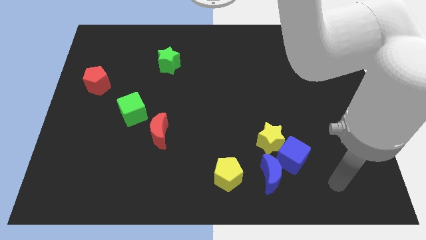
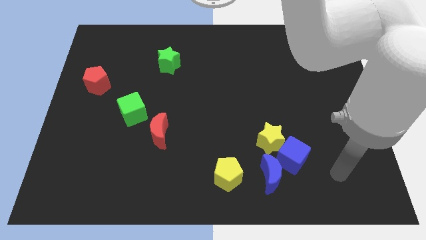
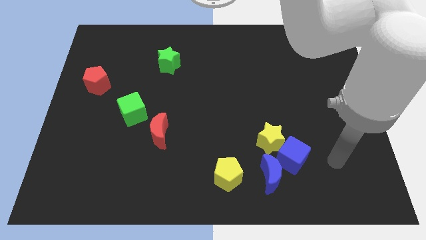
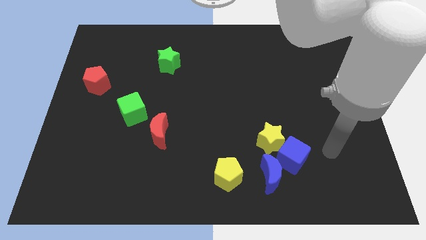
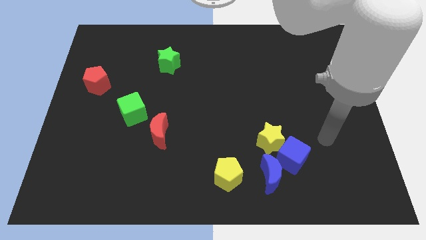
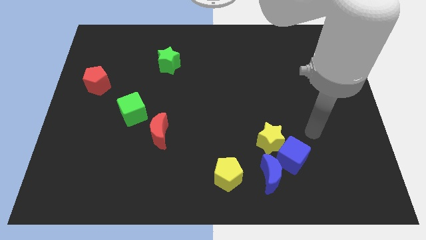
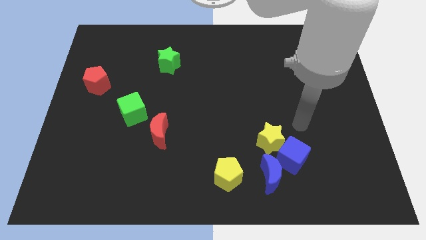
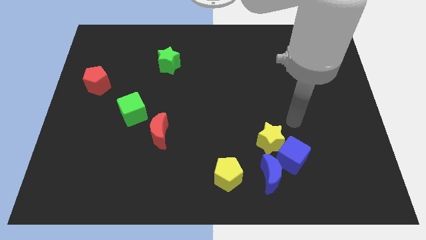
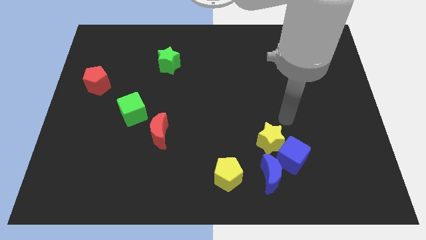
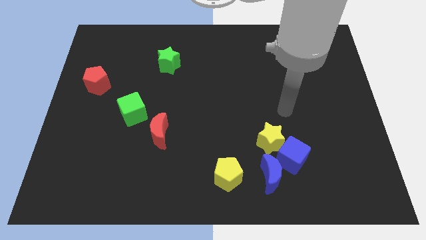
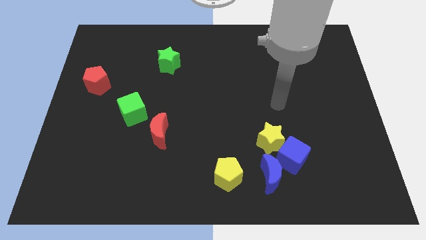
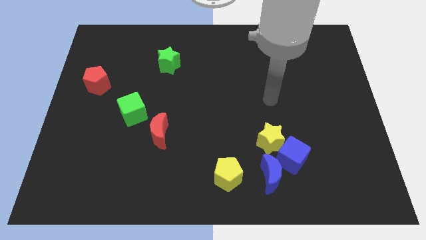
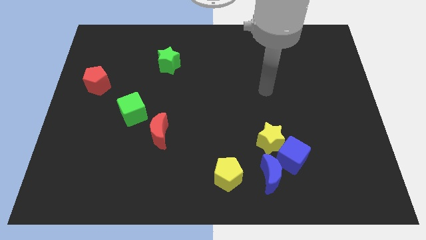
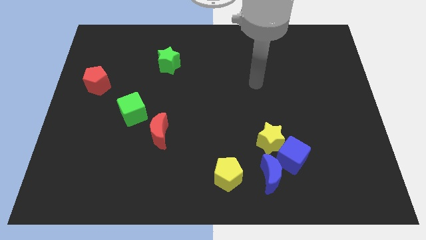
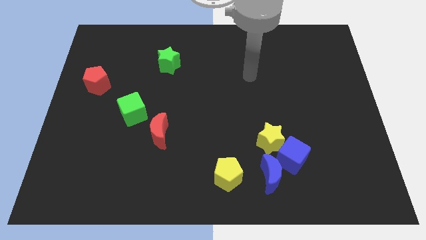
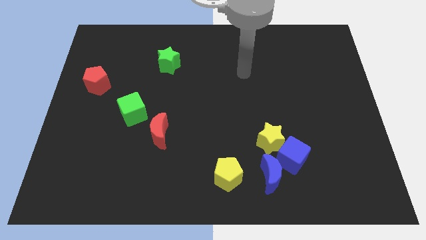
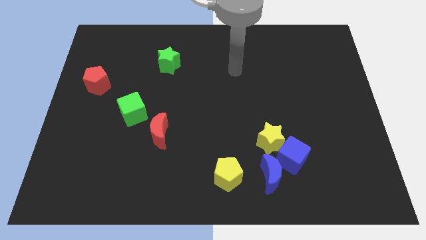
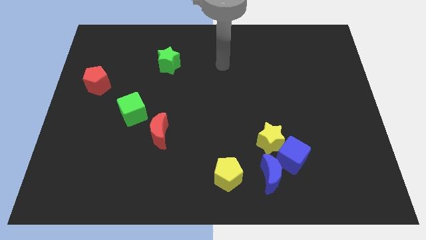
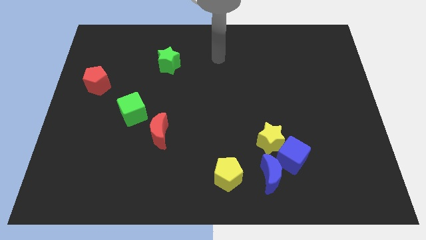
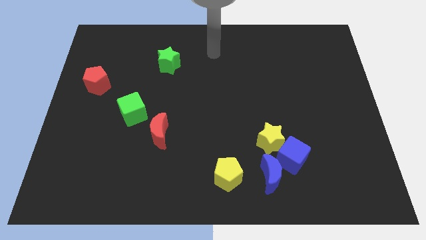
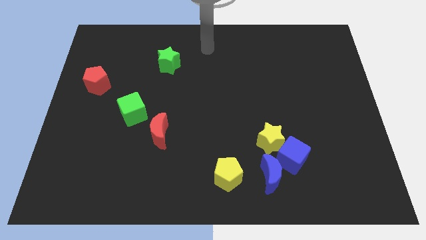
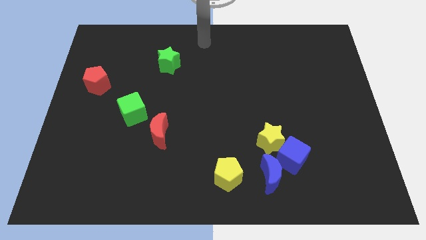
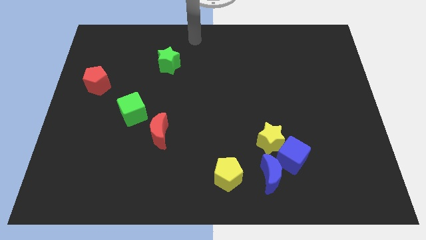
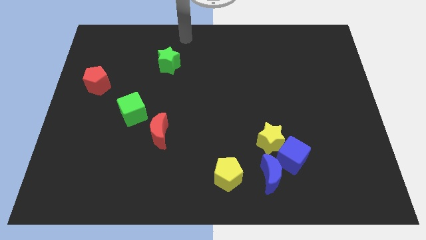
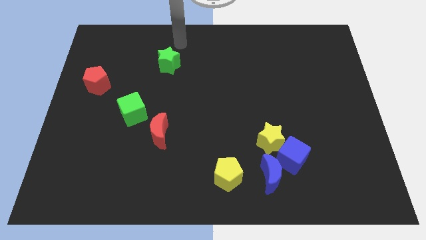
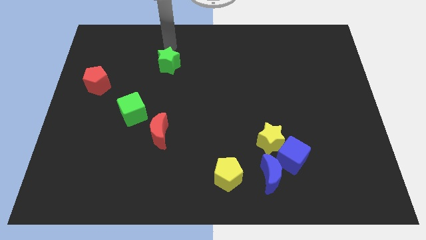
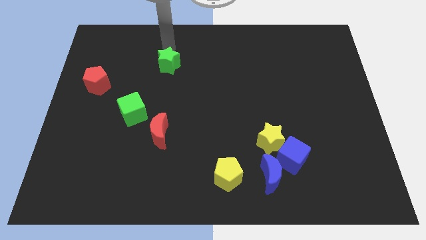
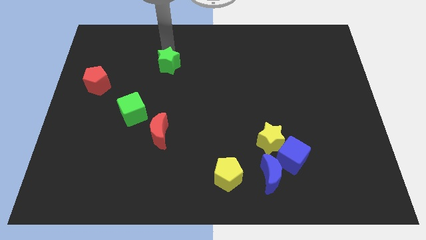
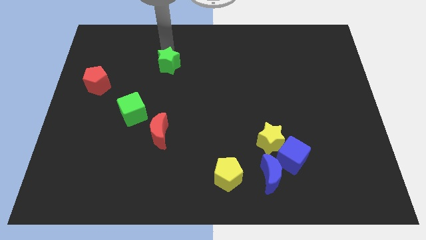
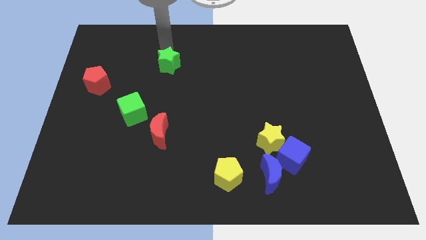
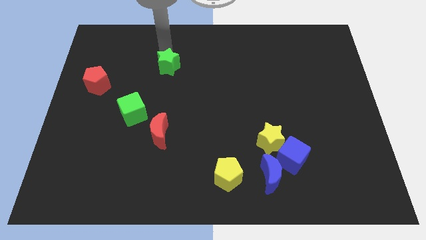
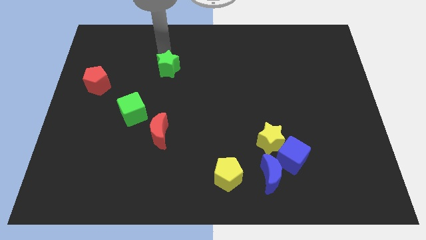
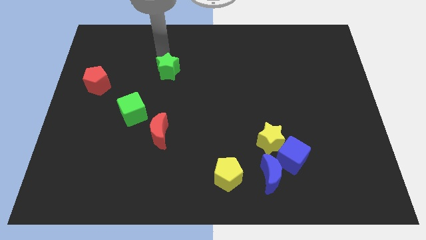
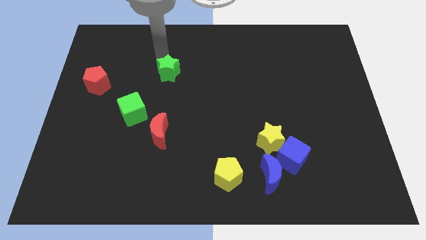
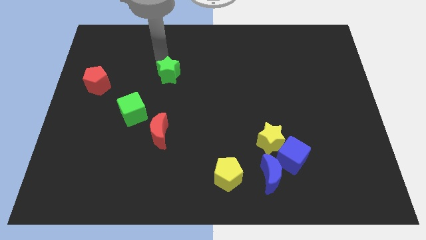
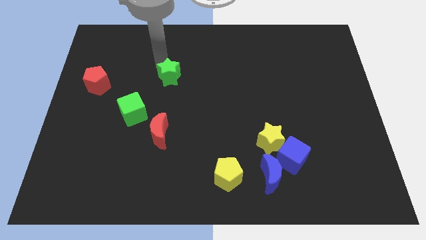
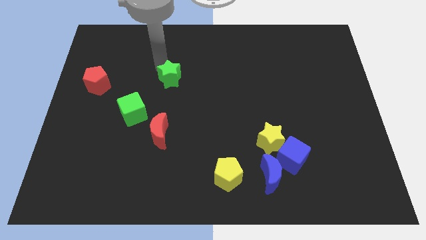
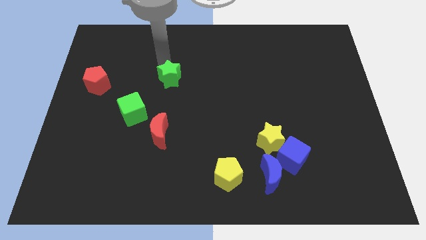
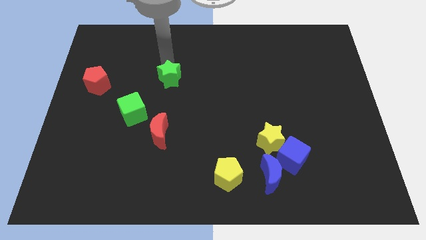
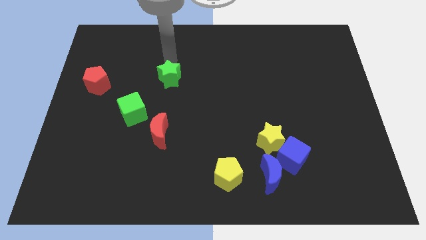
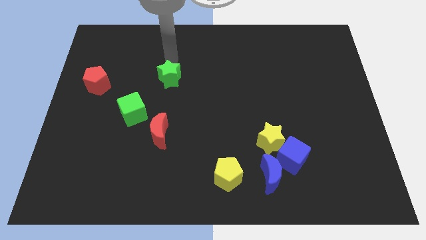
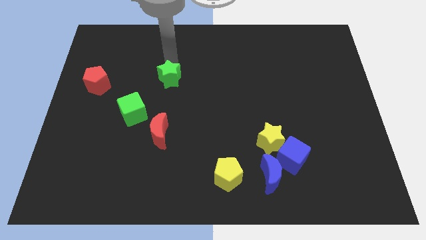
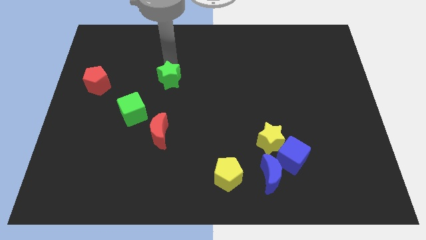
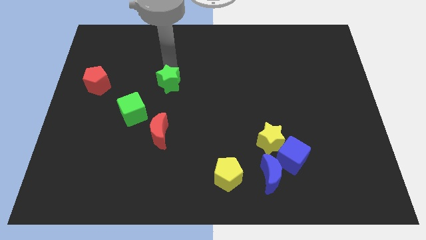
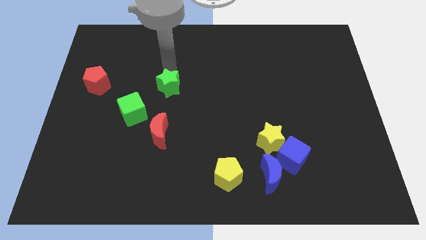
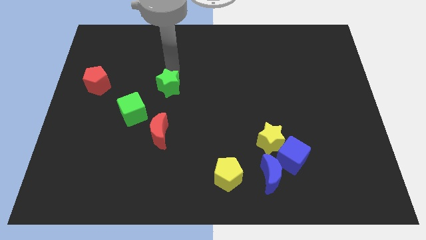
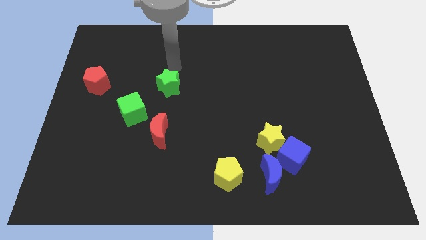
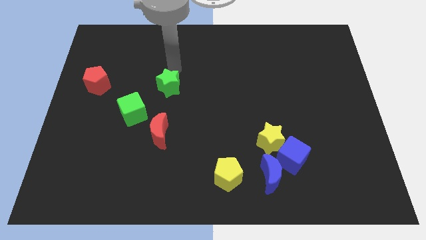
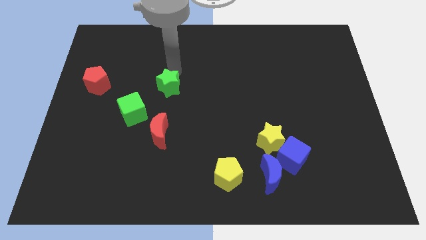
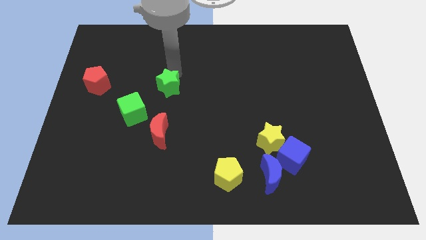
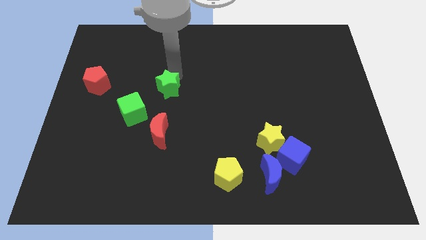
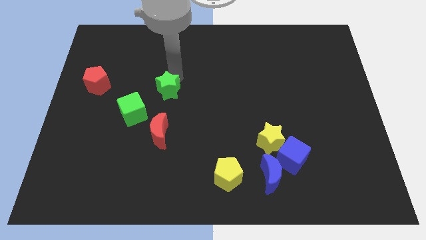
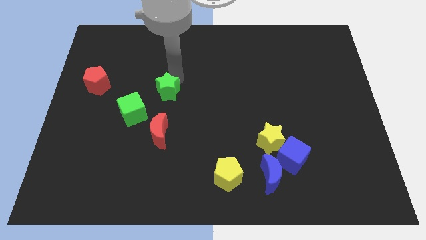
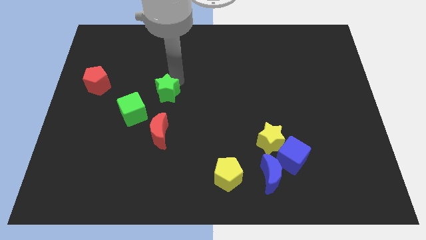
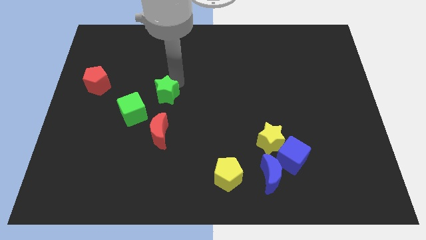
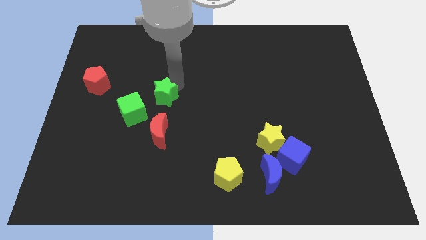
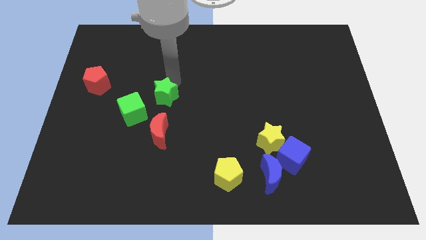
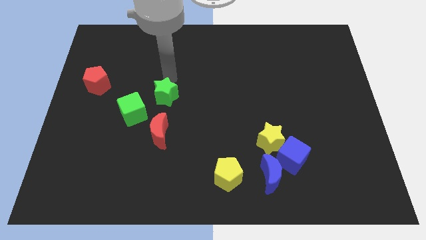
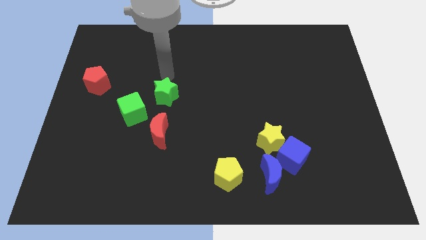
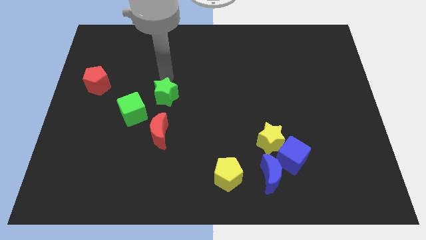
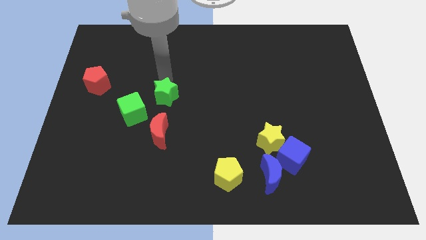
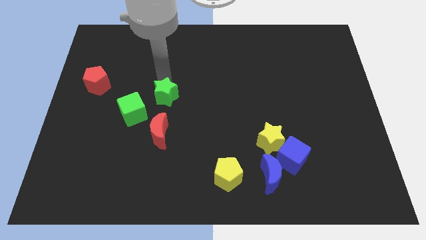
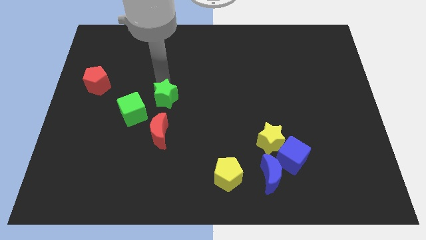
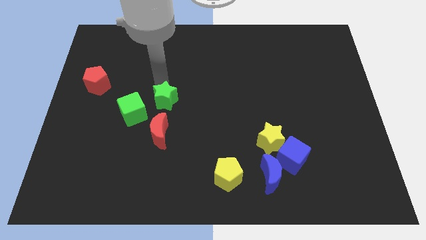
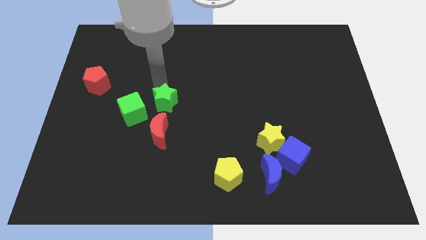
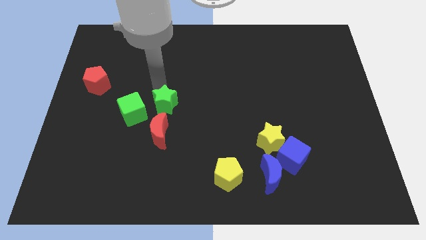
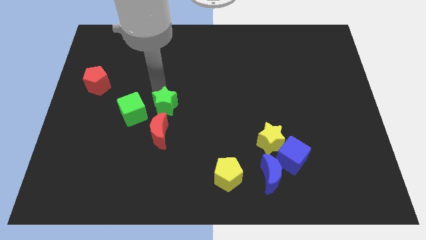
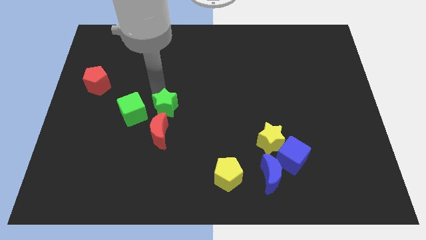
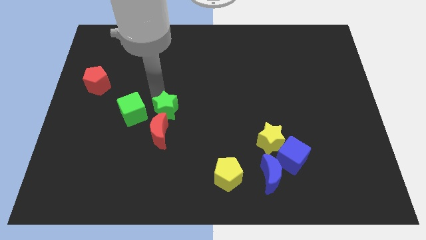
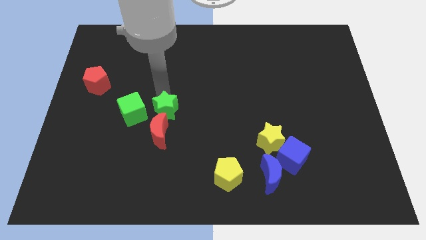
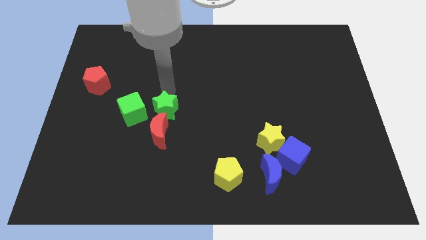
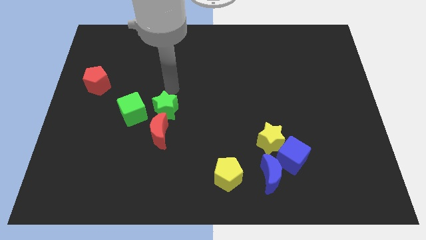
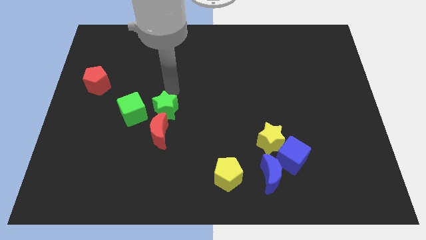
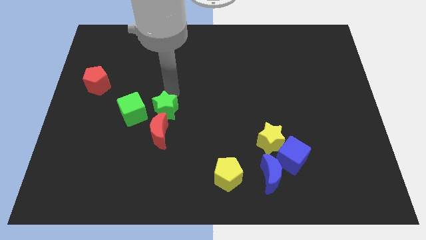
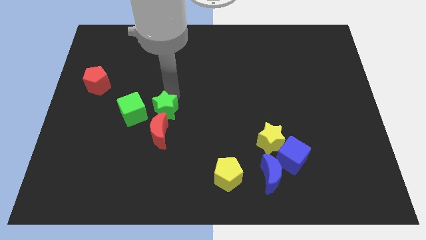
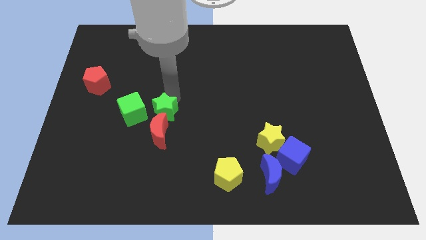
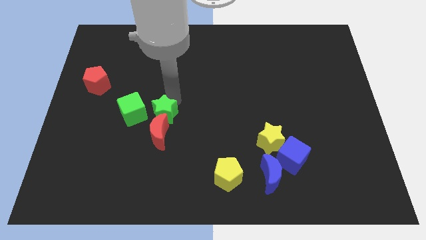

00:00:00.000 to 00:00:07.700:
put the green star to the red moon

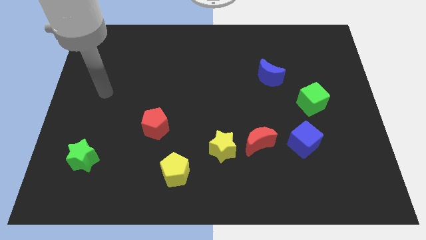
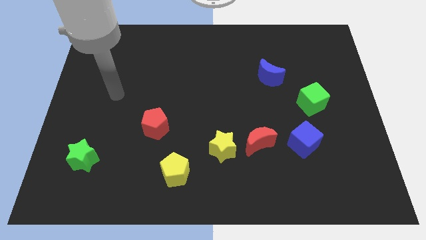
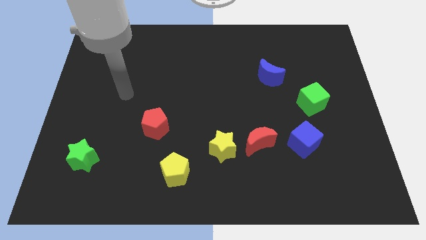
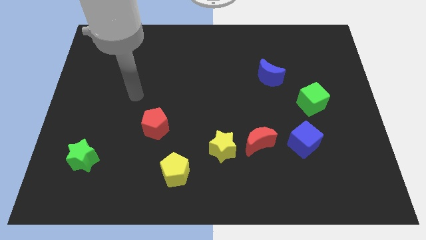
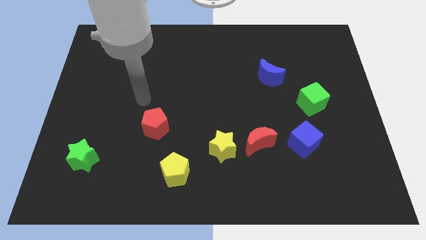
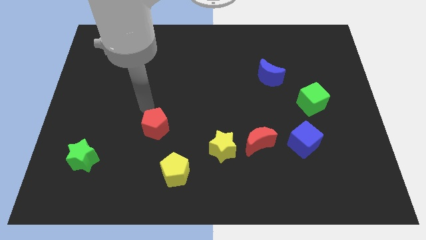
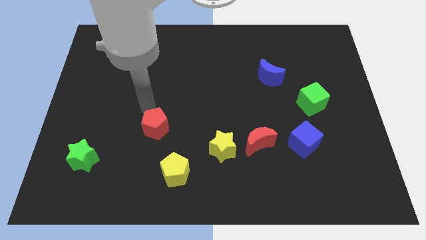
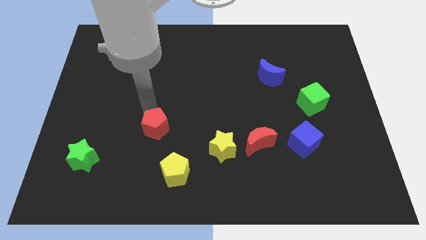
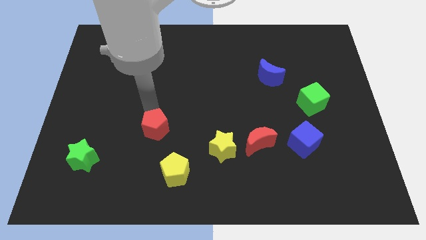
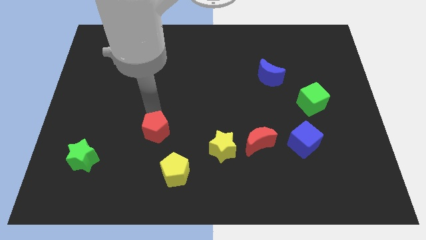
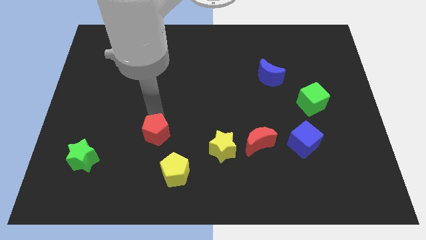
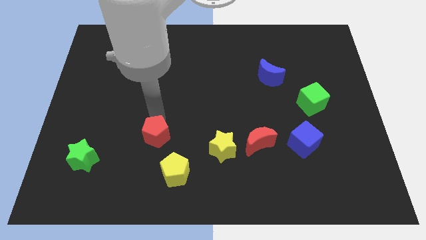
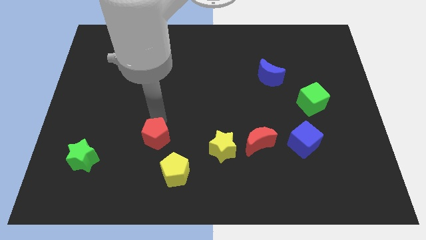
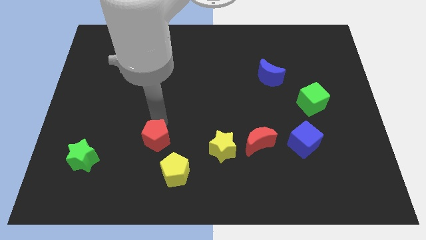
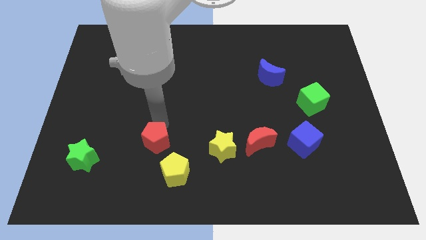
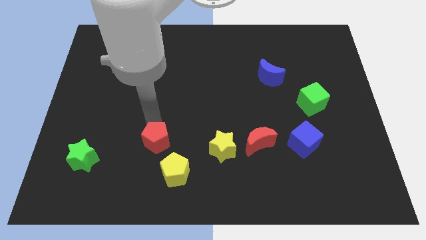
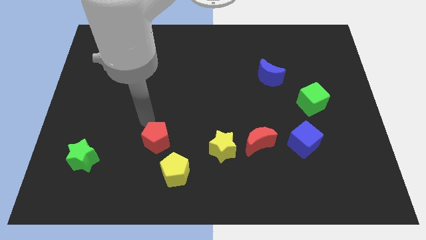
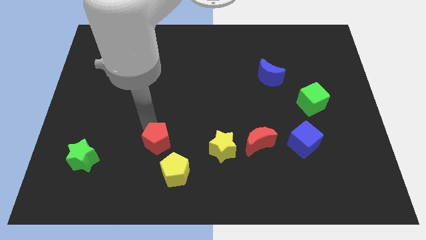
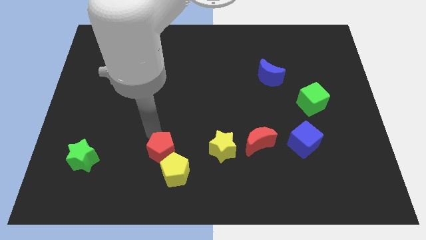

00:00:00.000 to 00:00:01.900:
slide the red pentagon next to the yellow pentagon
